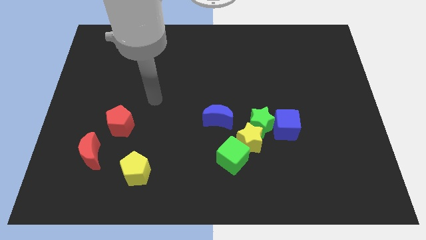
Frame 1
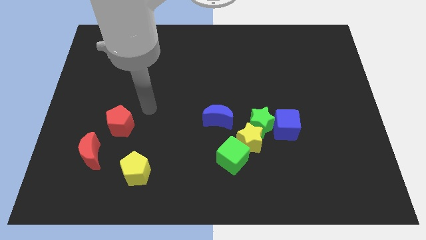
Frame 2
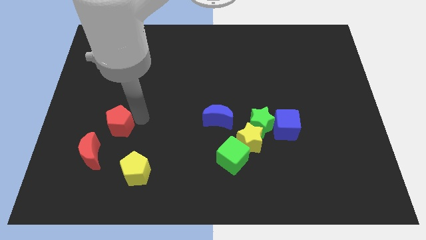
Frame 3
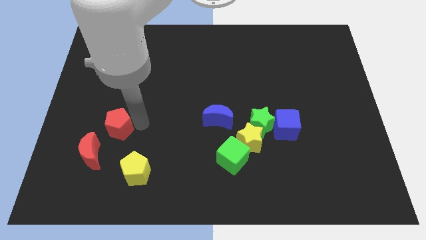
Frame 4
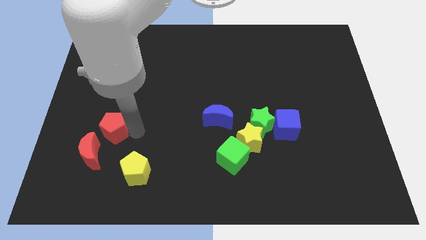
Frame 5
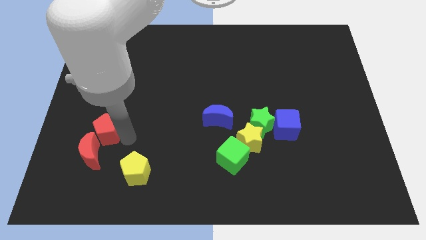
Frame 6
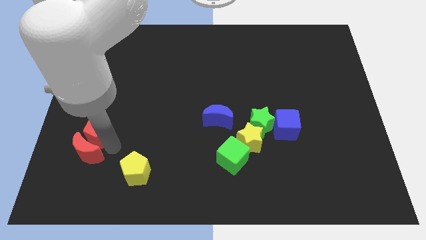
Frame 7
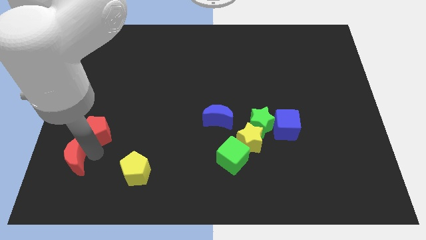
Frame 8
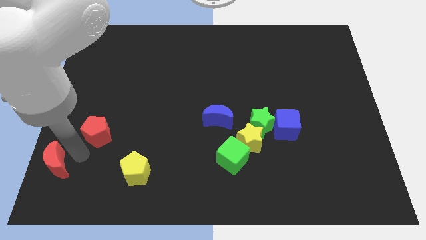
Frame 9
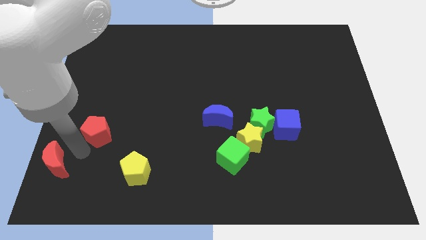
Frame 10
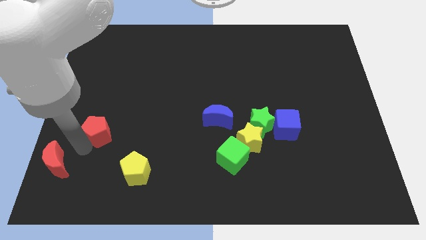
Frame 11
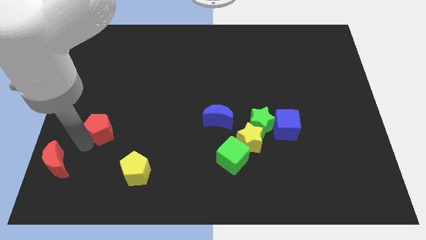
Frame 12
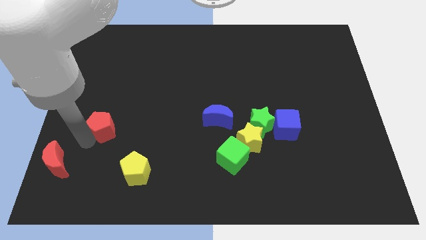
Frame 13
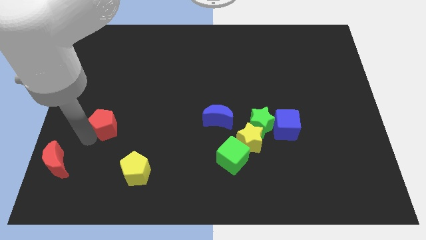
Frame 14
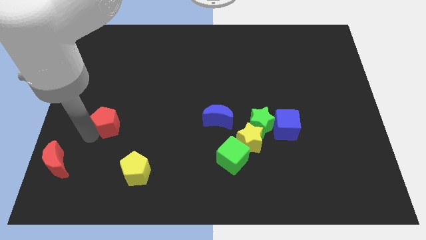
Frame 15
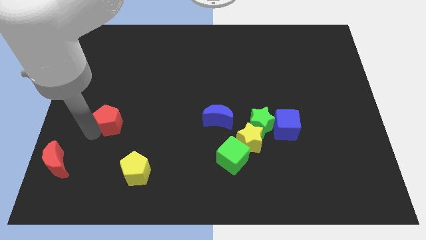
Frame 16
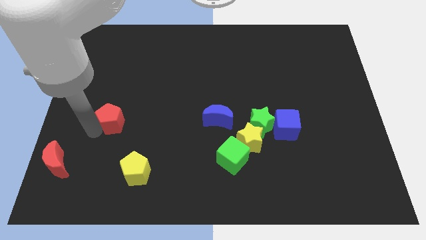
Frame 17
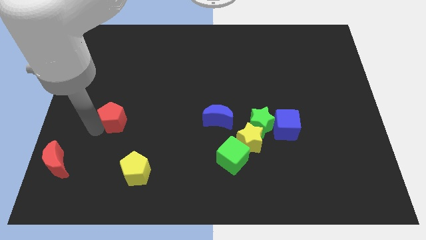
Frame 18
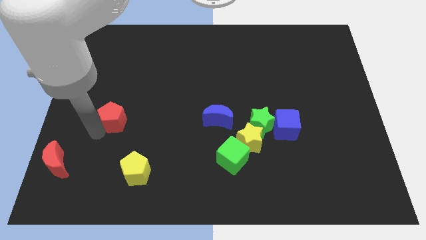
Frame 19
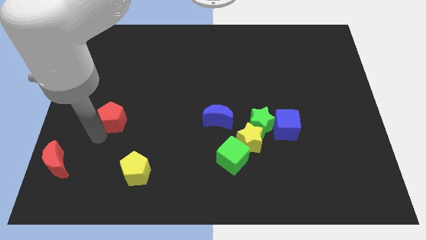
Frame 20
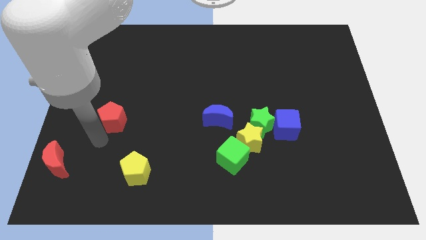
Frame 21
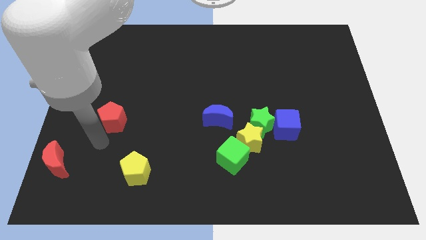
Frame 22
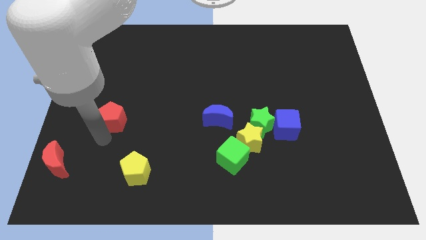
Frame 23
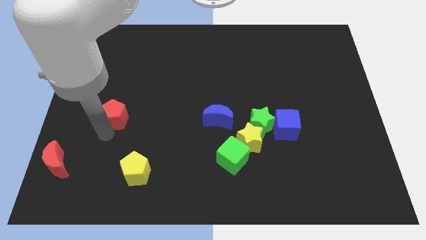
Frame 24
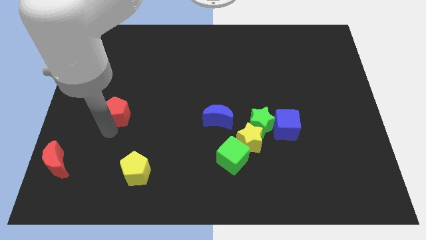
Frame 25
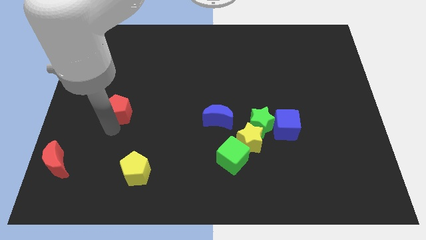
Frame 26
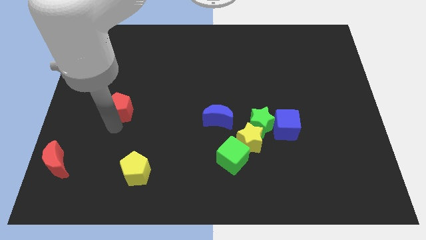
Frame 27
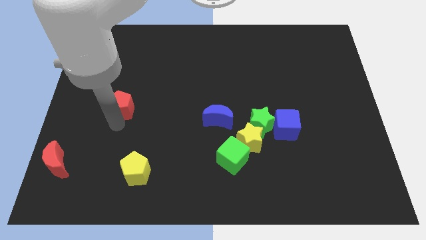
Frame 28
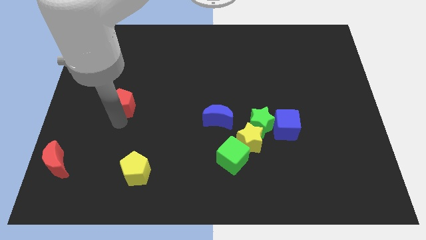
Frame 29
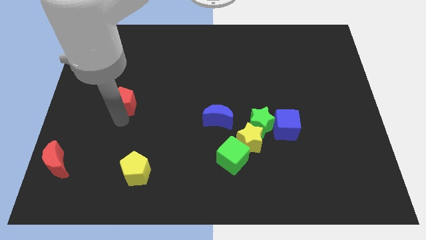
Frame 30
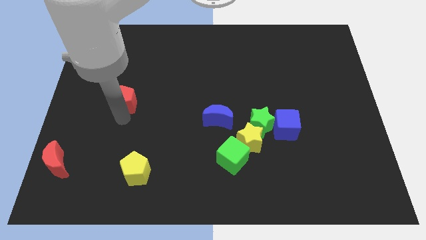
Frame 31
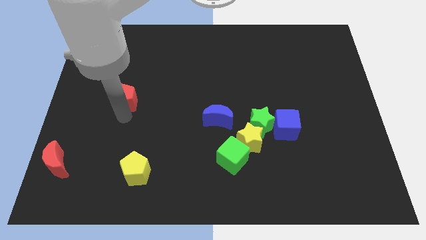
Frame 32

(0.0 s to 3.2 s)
slightly slide the red pentagon up

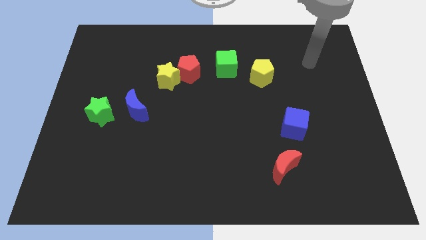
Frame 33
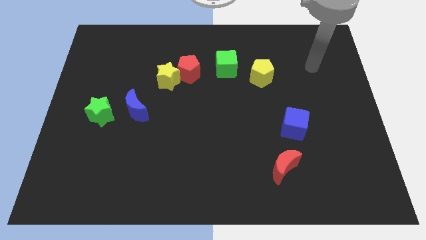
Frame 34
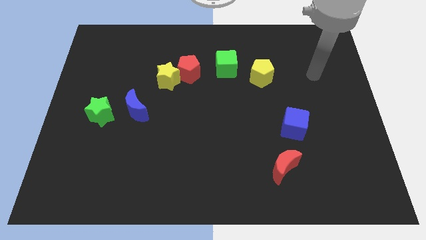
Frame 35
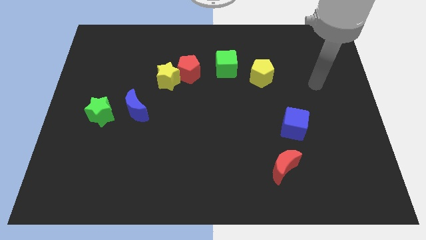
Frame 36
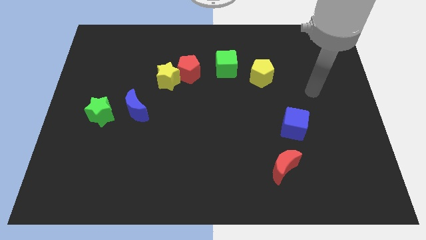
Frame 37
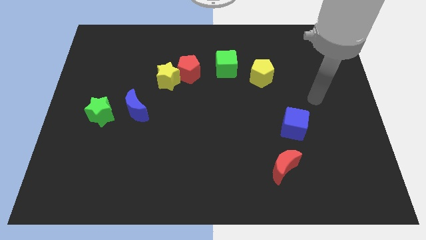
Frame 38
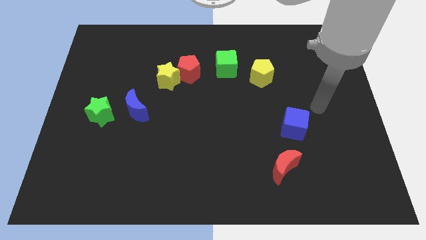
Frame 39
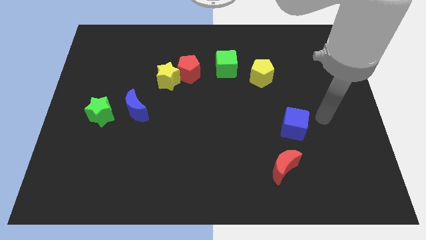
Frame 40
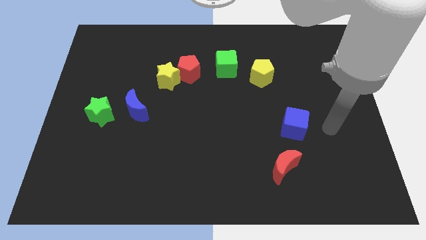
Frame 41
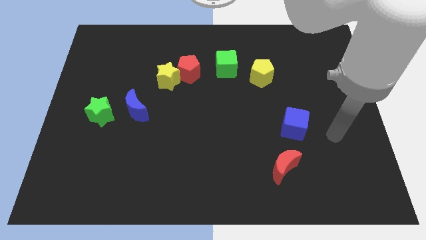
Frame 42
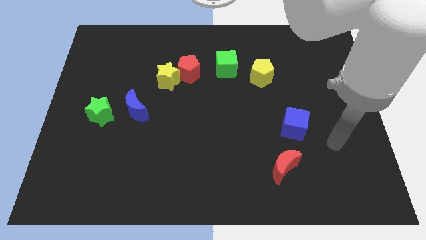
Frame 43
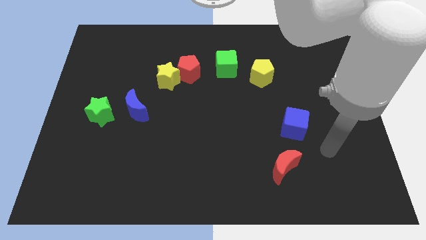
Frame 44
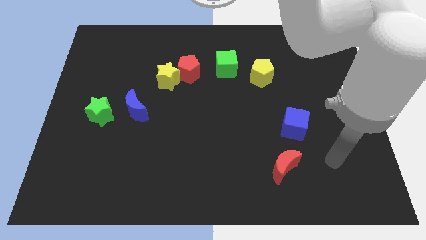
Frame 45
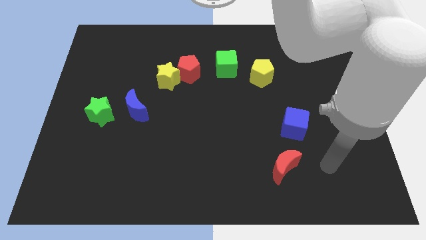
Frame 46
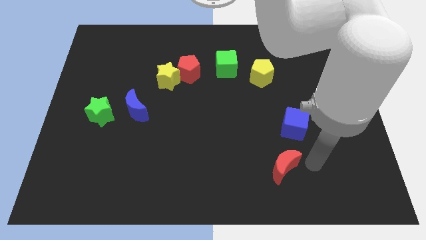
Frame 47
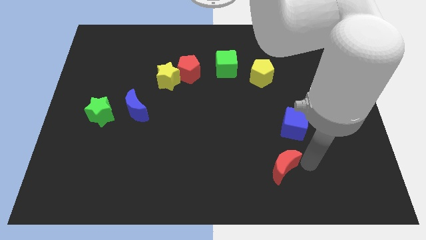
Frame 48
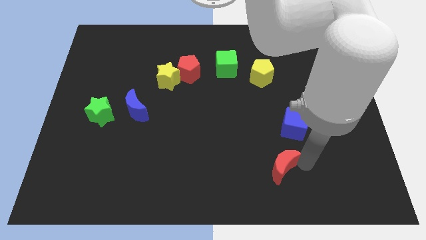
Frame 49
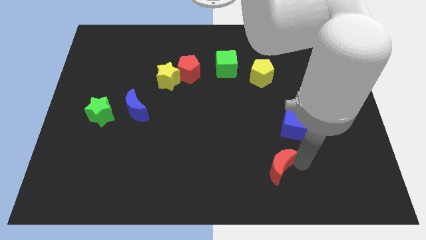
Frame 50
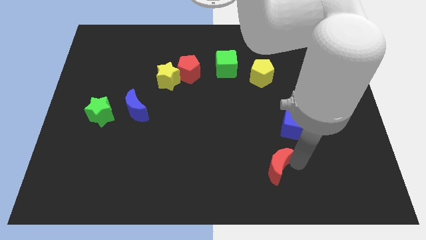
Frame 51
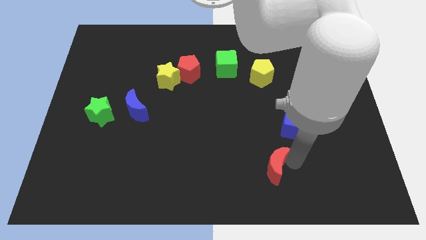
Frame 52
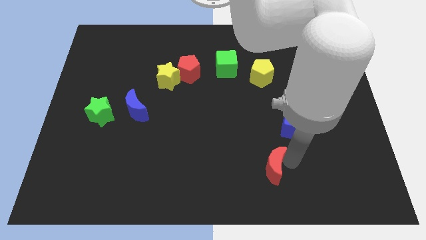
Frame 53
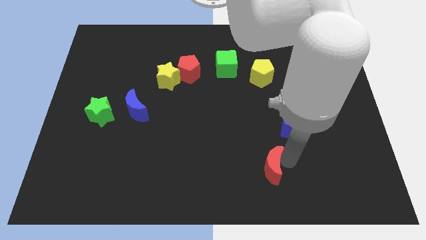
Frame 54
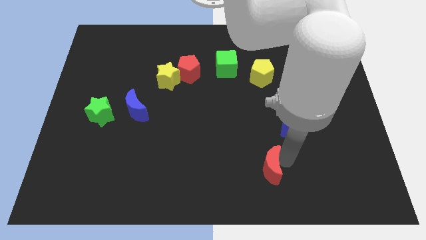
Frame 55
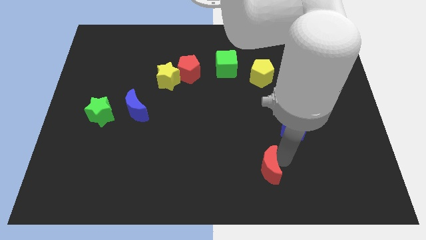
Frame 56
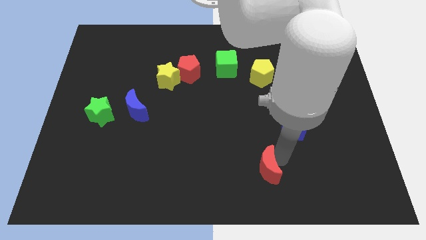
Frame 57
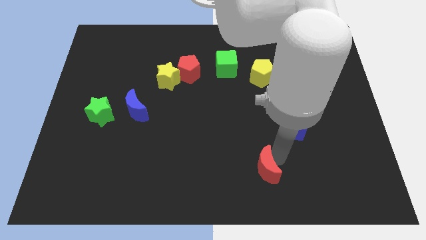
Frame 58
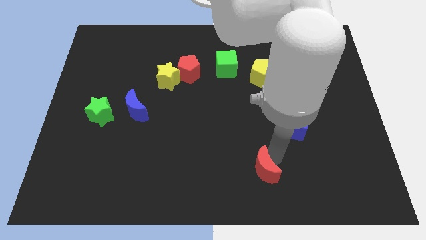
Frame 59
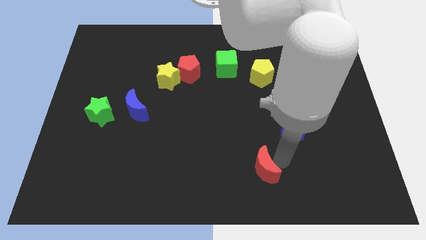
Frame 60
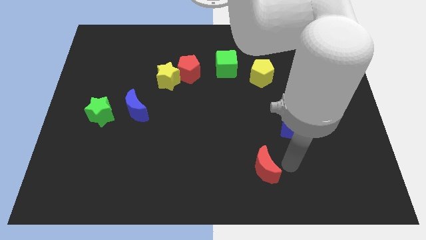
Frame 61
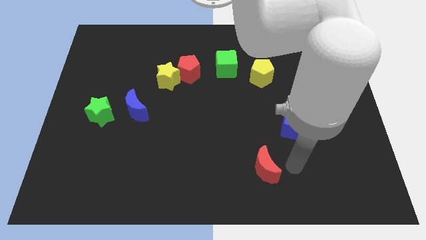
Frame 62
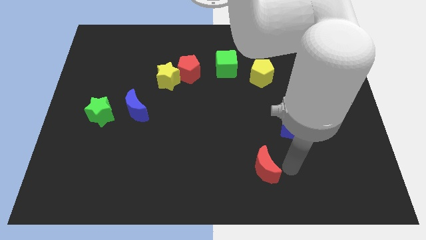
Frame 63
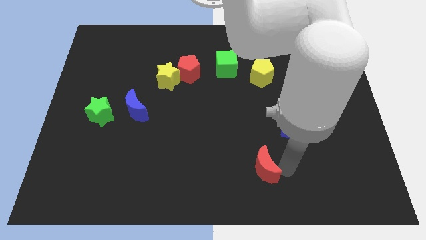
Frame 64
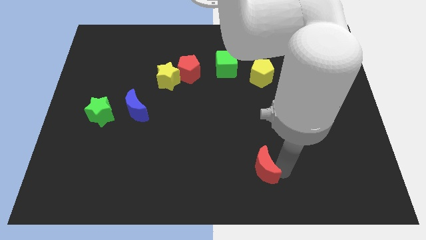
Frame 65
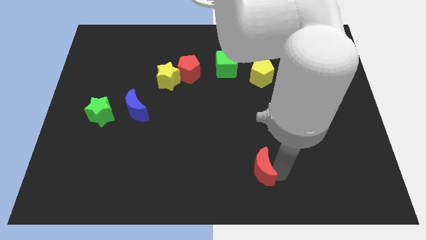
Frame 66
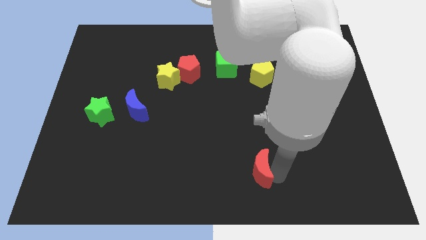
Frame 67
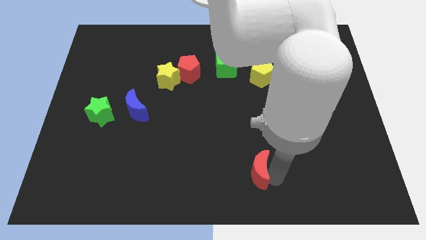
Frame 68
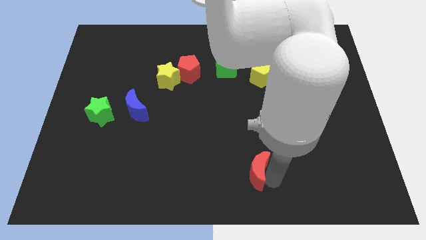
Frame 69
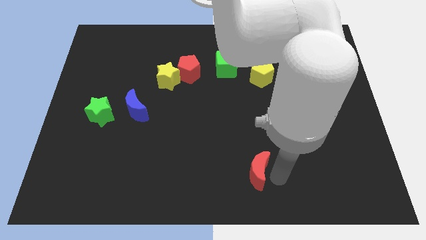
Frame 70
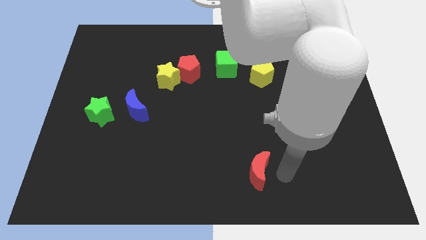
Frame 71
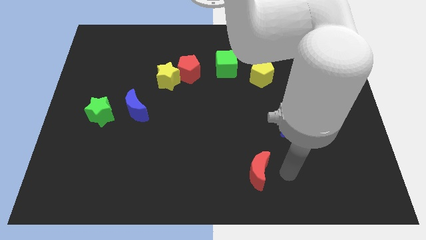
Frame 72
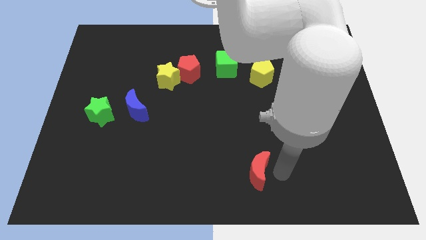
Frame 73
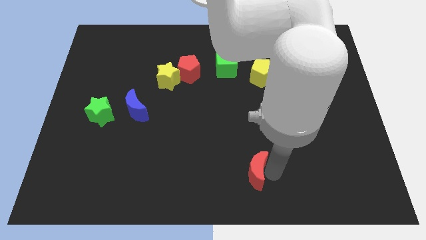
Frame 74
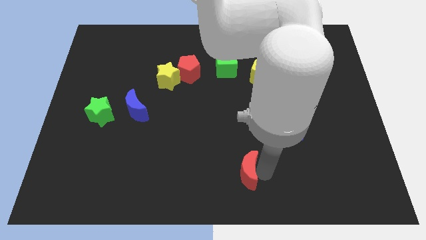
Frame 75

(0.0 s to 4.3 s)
slightly move the red moon left

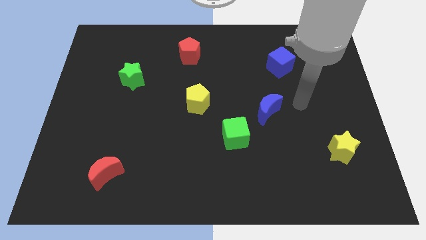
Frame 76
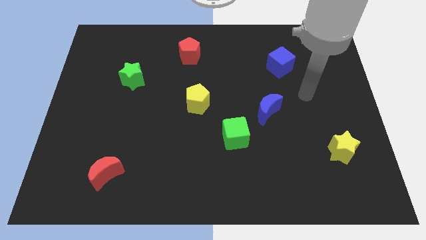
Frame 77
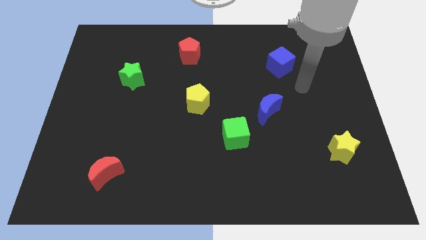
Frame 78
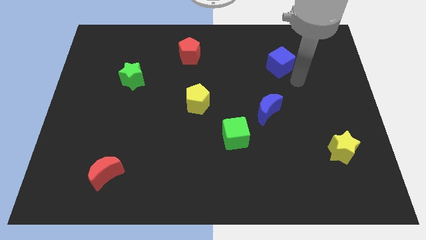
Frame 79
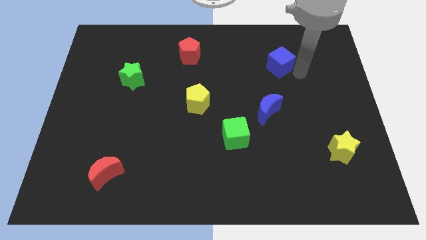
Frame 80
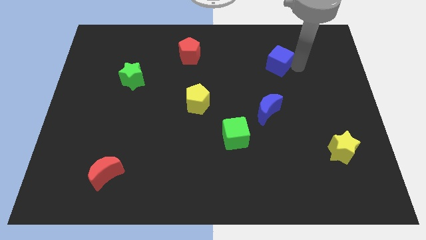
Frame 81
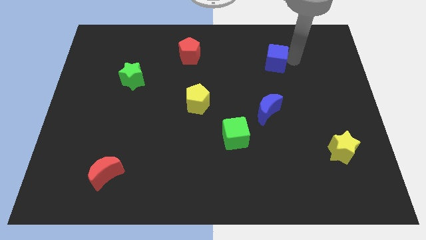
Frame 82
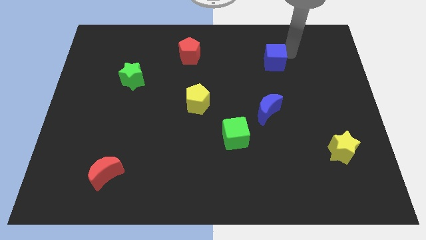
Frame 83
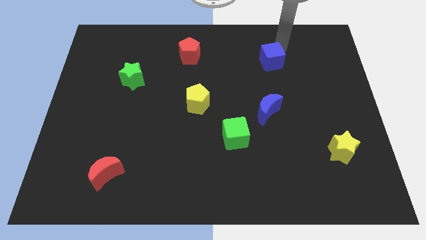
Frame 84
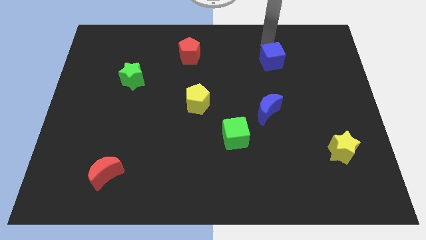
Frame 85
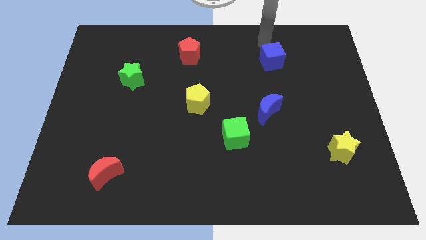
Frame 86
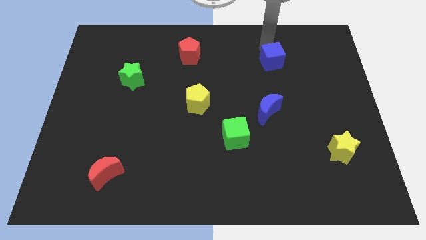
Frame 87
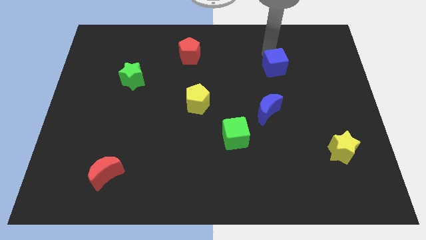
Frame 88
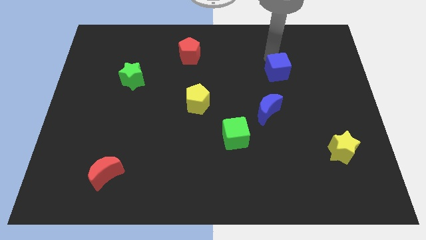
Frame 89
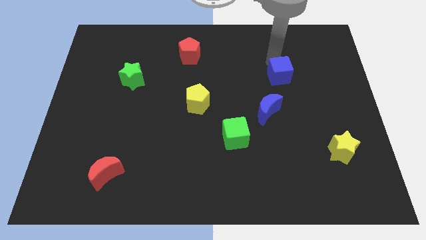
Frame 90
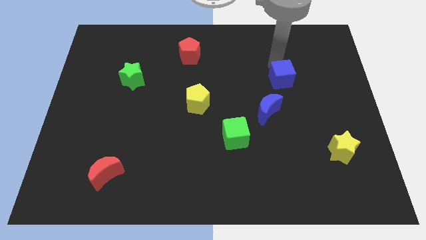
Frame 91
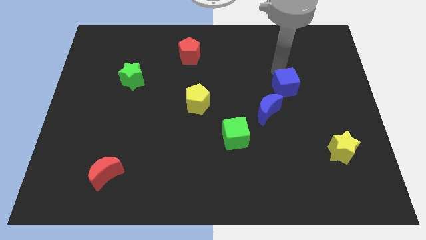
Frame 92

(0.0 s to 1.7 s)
move the blue cube a little bit downwards
